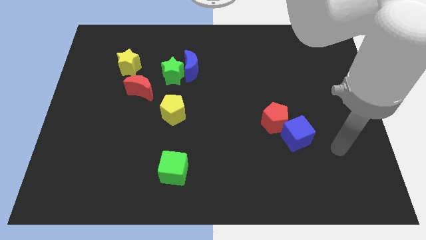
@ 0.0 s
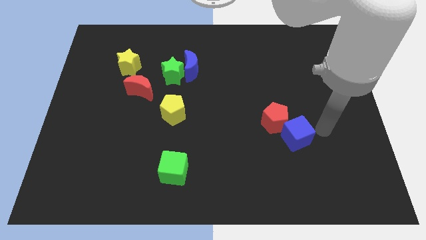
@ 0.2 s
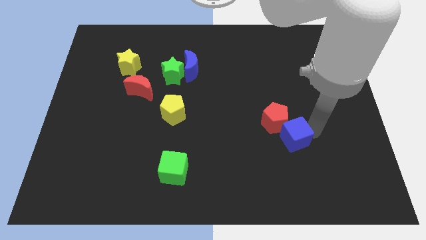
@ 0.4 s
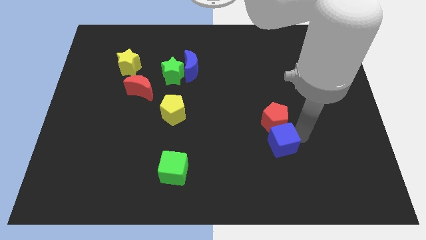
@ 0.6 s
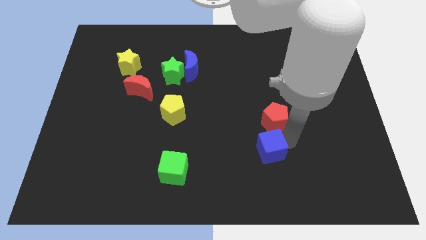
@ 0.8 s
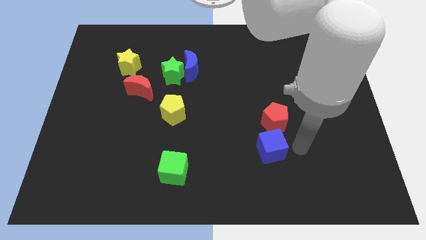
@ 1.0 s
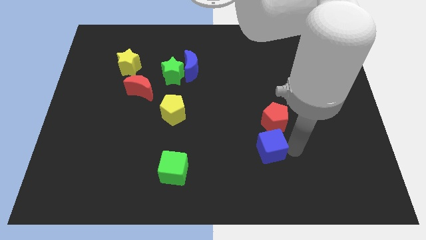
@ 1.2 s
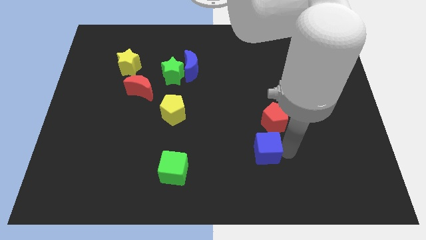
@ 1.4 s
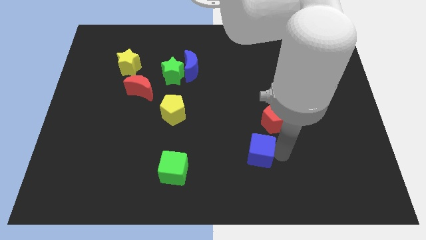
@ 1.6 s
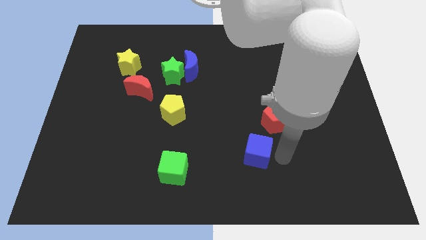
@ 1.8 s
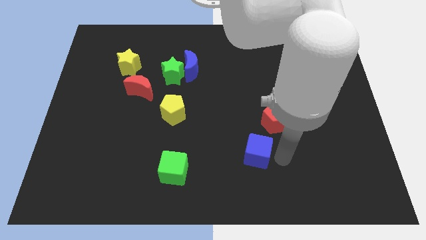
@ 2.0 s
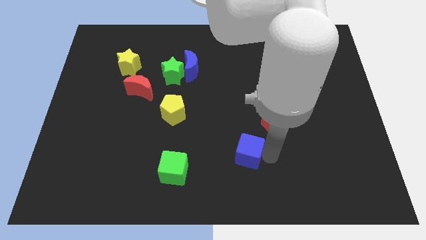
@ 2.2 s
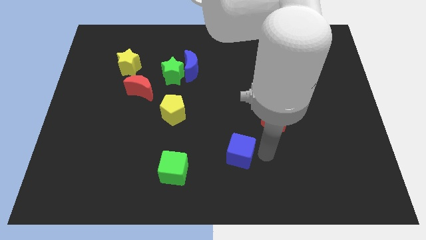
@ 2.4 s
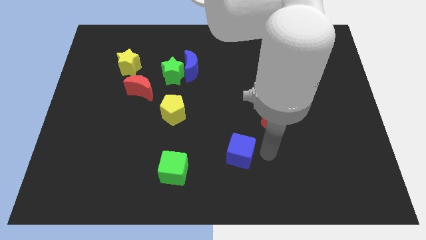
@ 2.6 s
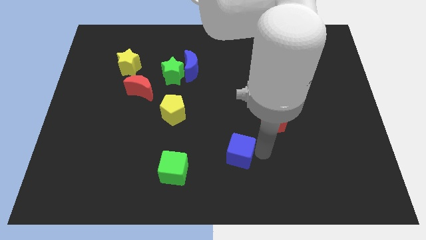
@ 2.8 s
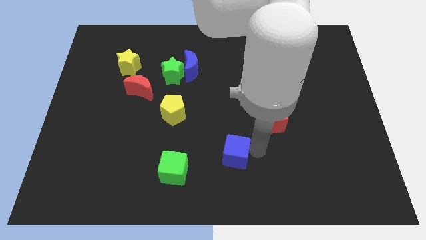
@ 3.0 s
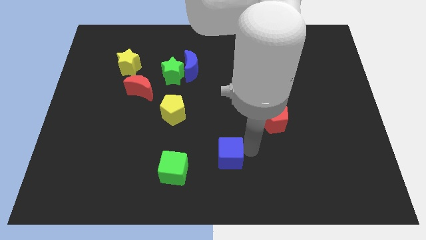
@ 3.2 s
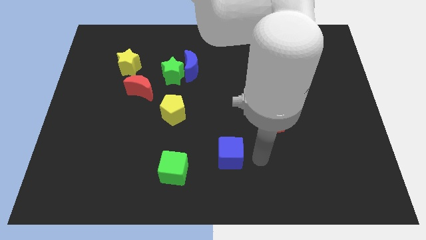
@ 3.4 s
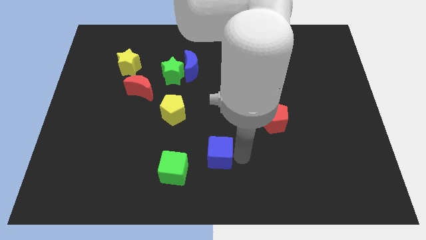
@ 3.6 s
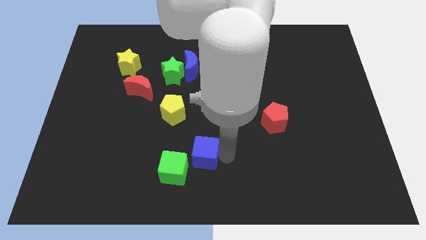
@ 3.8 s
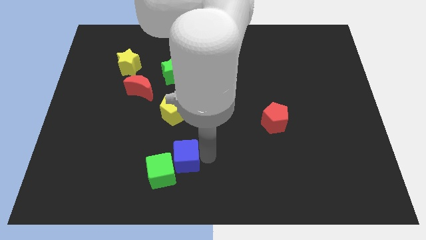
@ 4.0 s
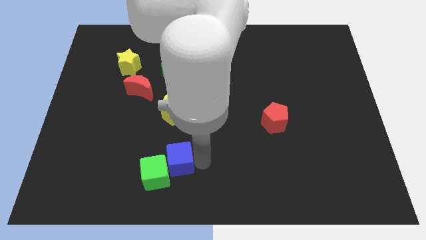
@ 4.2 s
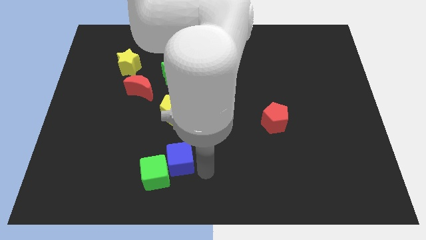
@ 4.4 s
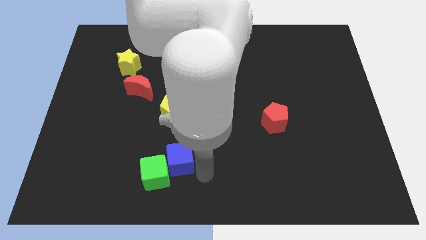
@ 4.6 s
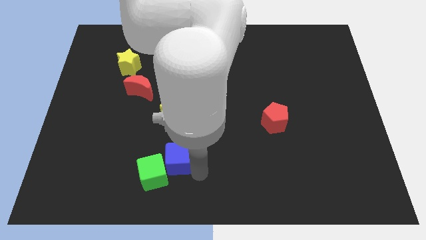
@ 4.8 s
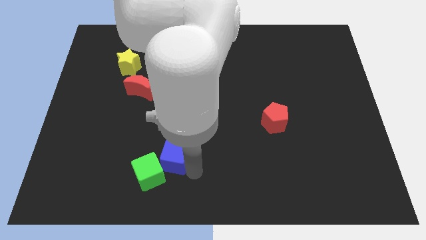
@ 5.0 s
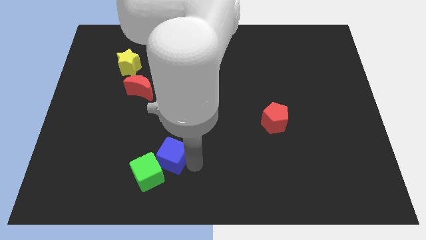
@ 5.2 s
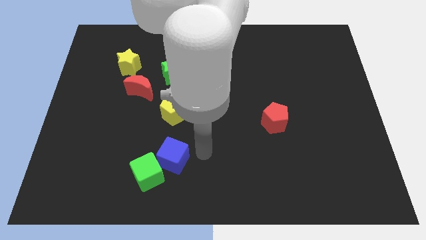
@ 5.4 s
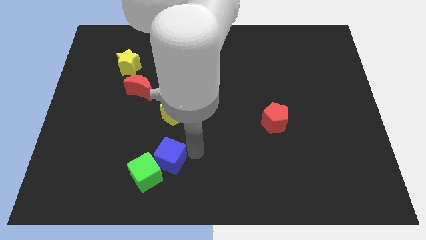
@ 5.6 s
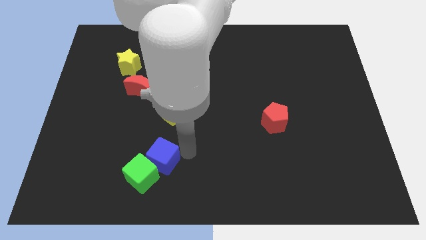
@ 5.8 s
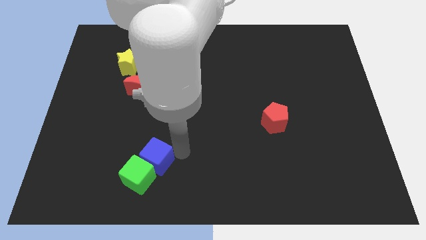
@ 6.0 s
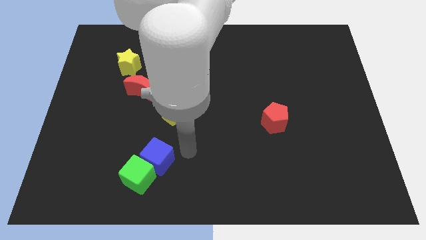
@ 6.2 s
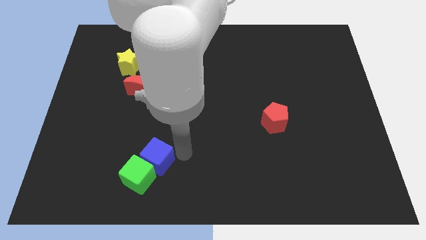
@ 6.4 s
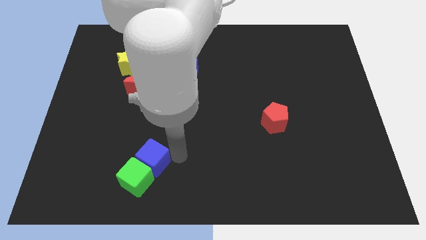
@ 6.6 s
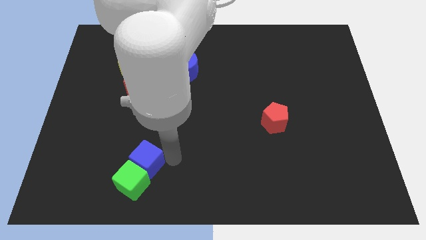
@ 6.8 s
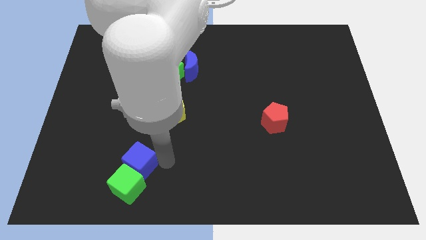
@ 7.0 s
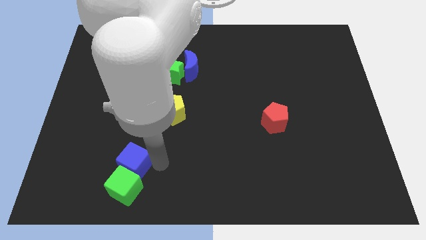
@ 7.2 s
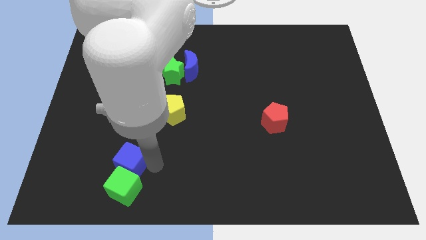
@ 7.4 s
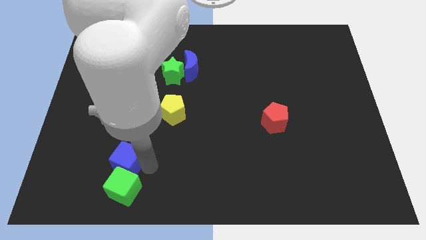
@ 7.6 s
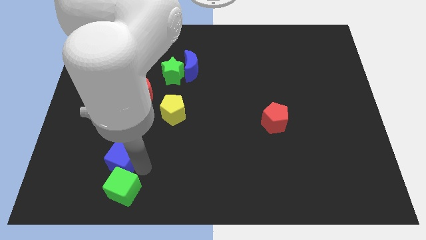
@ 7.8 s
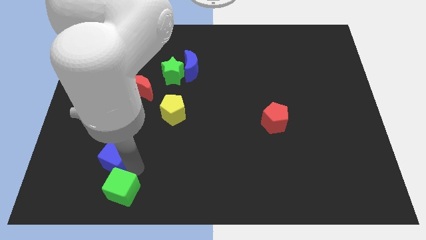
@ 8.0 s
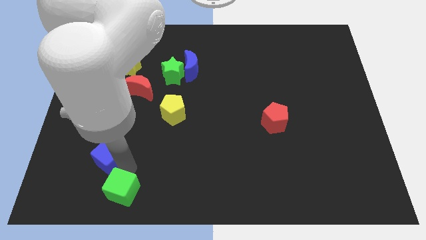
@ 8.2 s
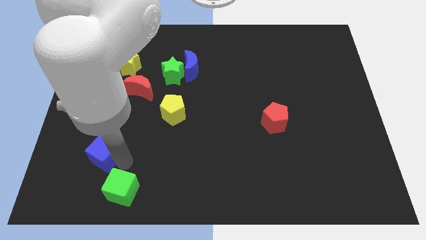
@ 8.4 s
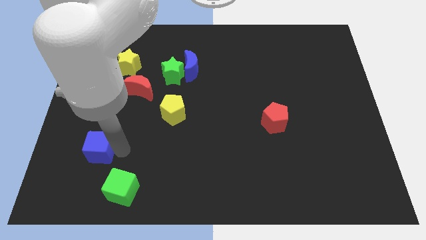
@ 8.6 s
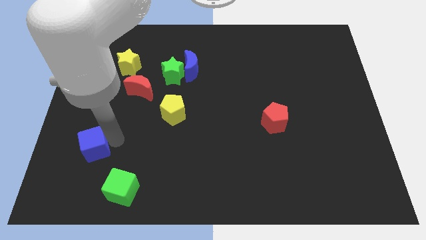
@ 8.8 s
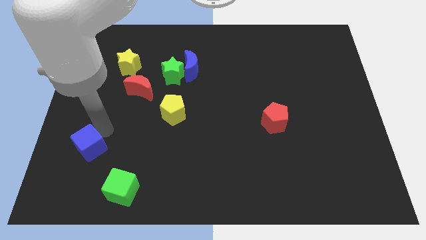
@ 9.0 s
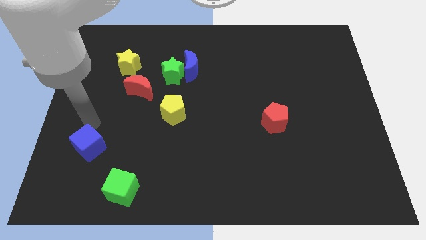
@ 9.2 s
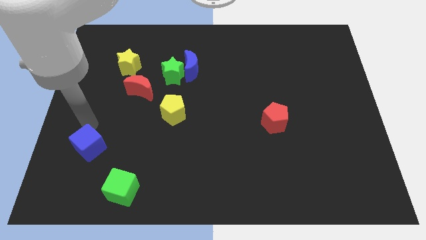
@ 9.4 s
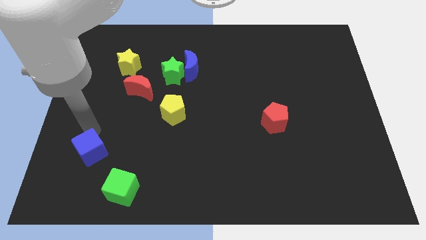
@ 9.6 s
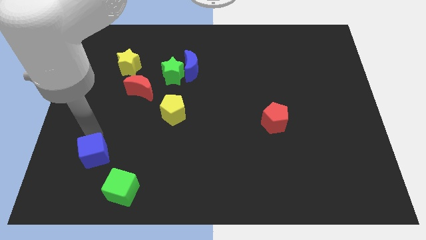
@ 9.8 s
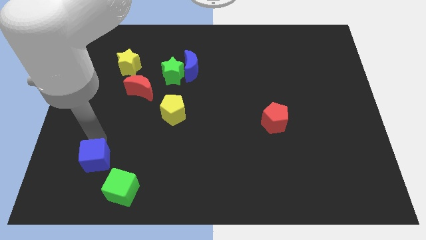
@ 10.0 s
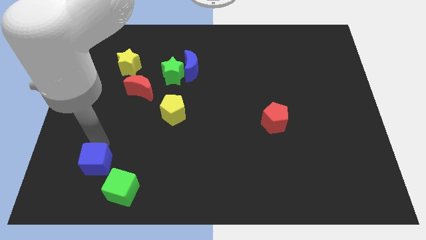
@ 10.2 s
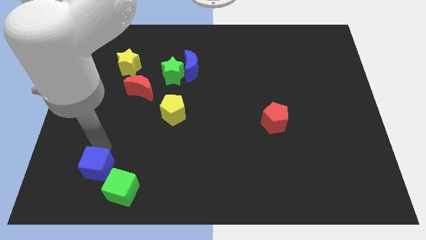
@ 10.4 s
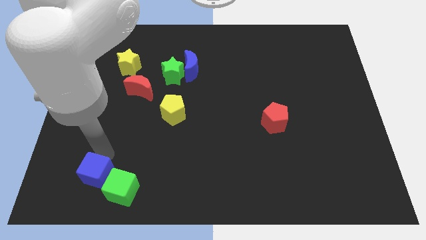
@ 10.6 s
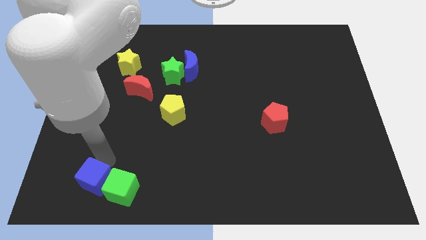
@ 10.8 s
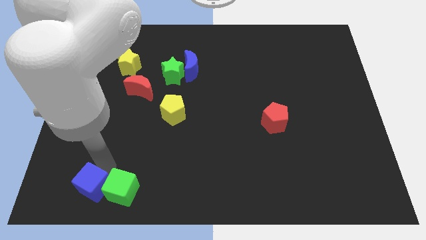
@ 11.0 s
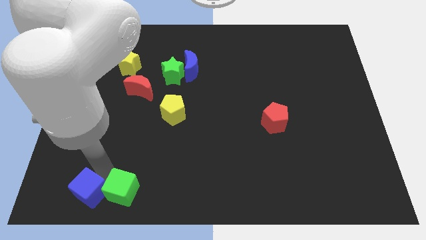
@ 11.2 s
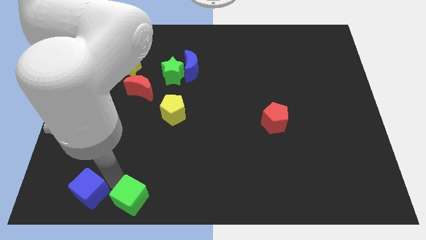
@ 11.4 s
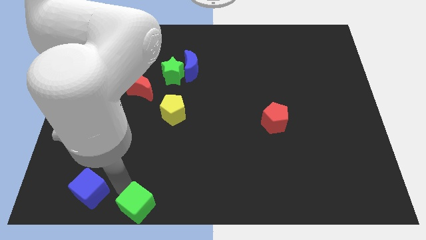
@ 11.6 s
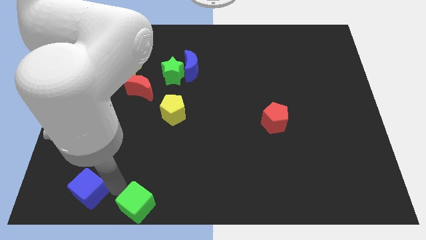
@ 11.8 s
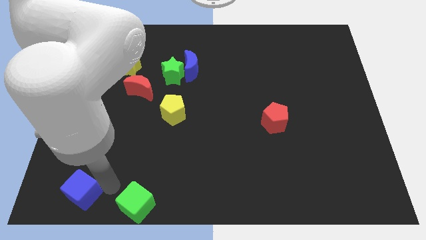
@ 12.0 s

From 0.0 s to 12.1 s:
push the blue cube to the bottom left

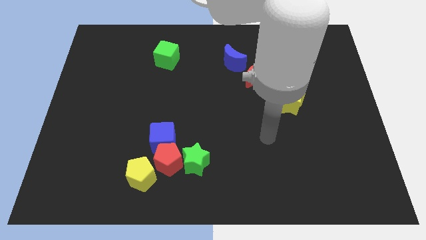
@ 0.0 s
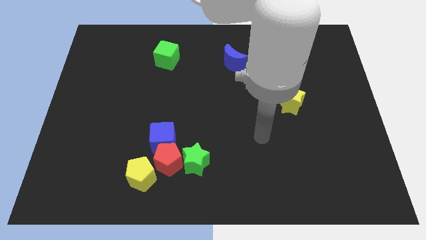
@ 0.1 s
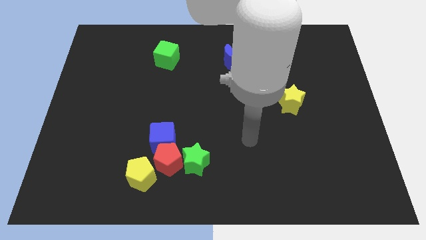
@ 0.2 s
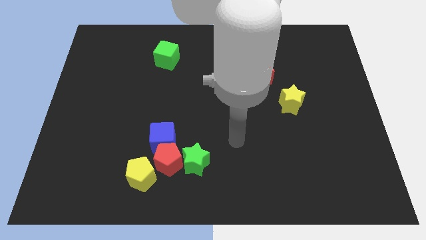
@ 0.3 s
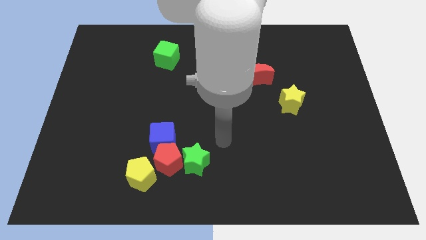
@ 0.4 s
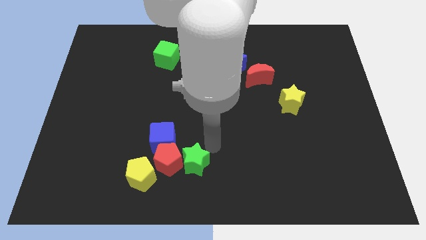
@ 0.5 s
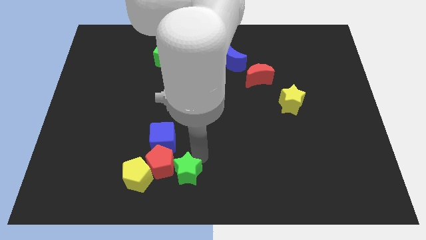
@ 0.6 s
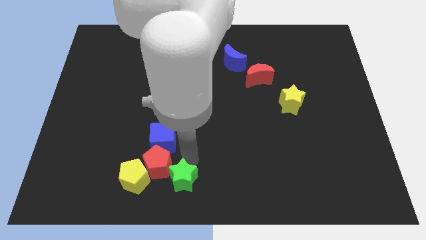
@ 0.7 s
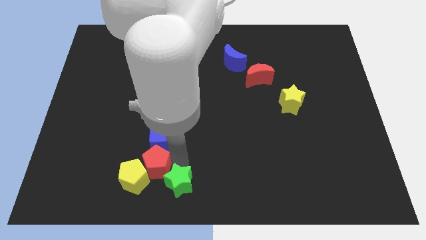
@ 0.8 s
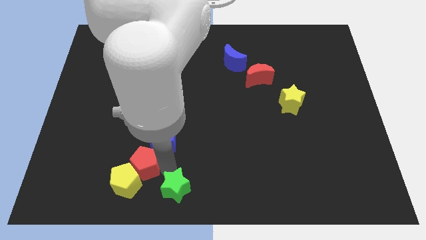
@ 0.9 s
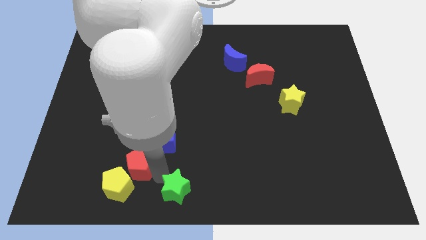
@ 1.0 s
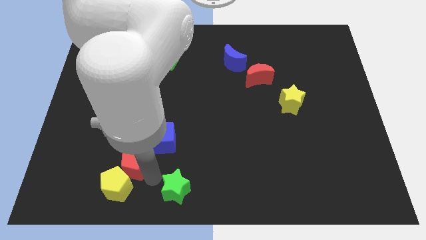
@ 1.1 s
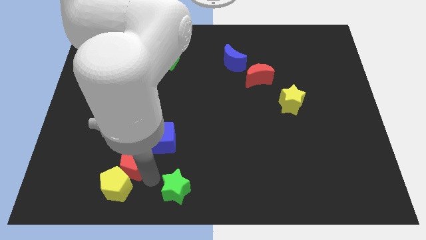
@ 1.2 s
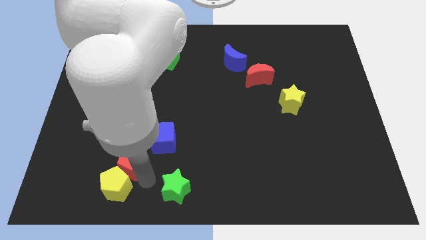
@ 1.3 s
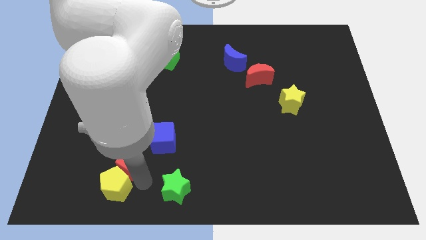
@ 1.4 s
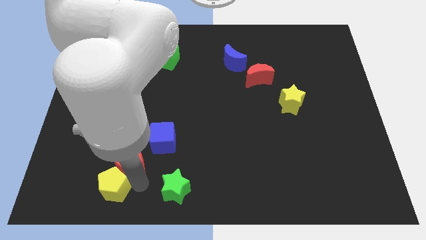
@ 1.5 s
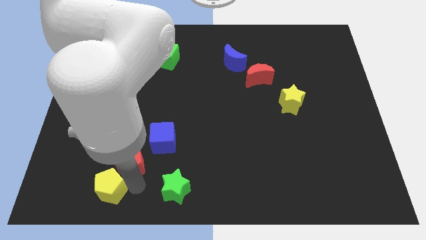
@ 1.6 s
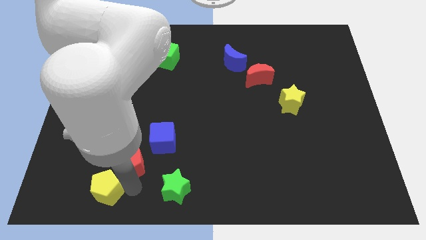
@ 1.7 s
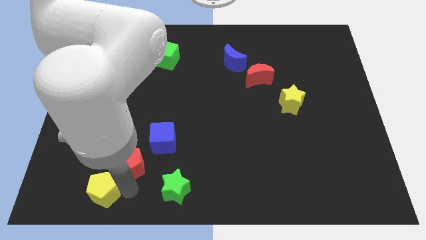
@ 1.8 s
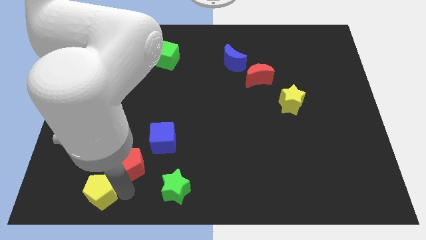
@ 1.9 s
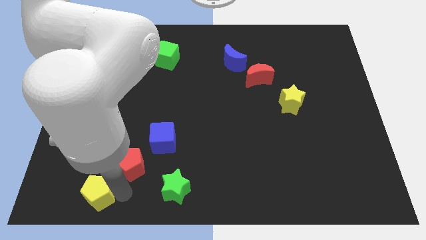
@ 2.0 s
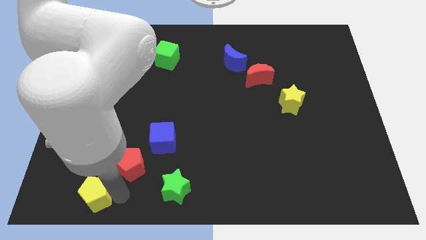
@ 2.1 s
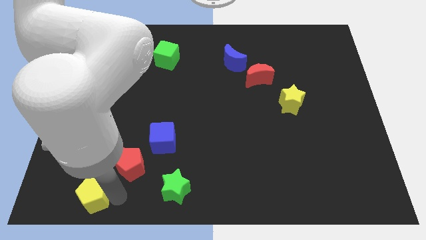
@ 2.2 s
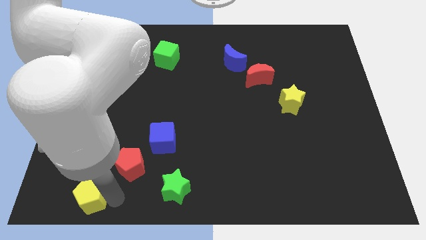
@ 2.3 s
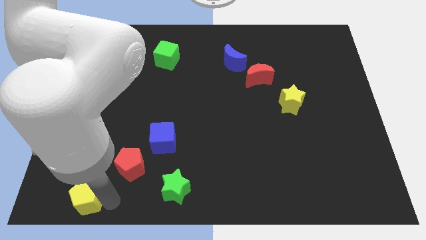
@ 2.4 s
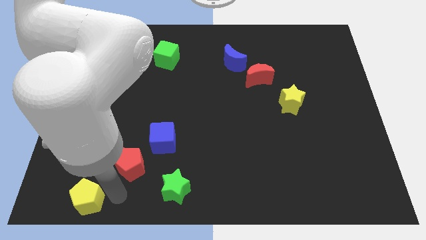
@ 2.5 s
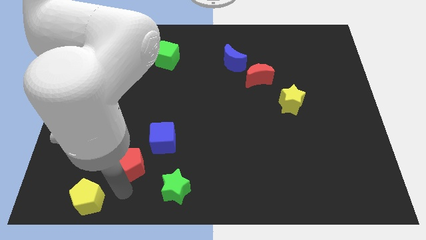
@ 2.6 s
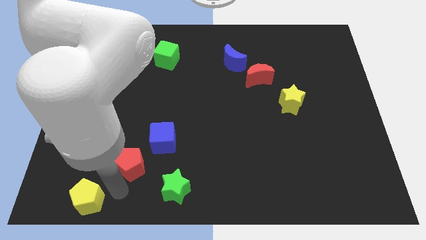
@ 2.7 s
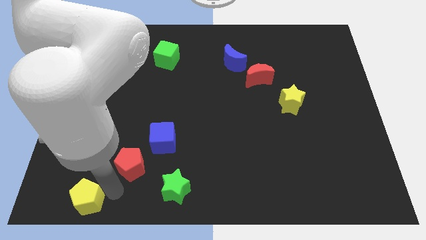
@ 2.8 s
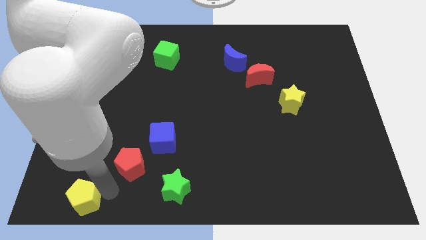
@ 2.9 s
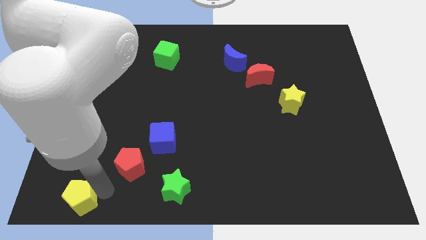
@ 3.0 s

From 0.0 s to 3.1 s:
slide the yellow pentagon to the bottom left
